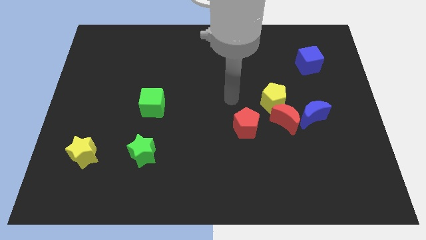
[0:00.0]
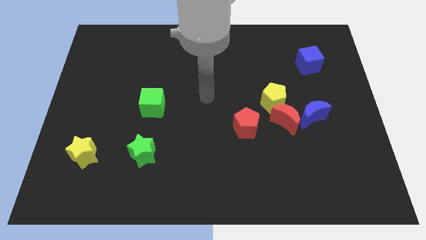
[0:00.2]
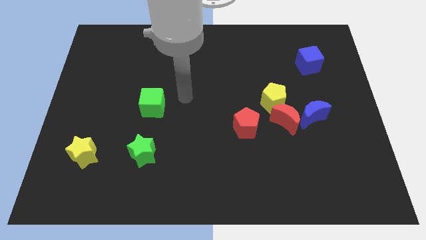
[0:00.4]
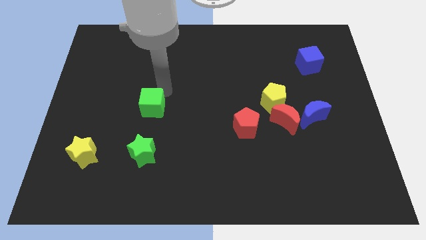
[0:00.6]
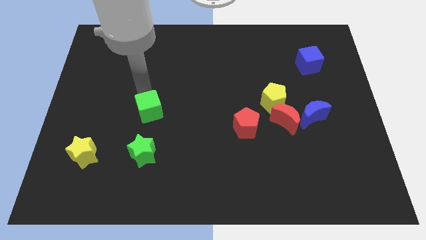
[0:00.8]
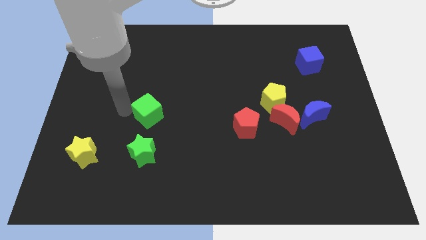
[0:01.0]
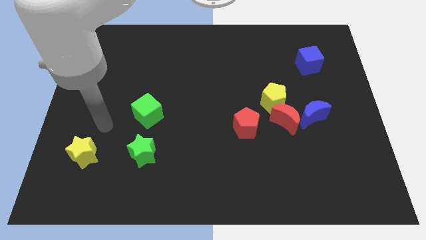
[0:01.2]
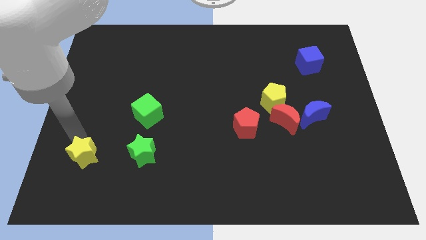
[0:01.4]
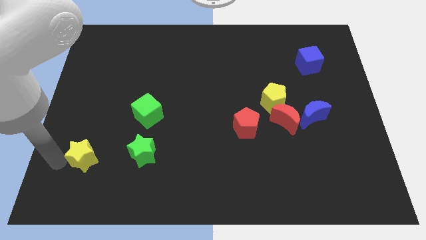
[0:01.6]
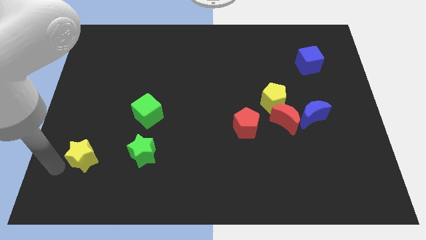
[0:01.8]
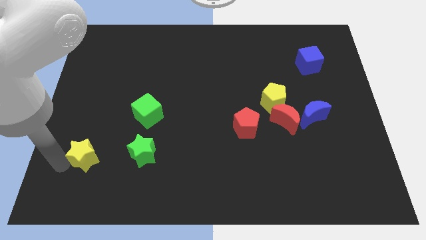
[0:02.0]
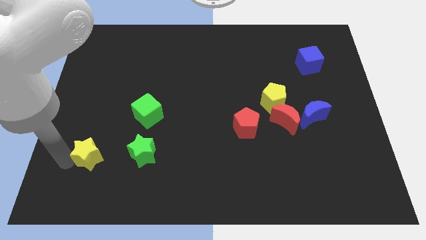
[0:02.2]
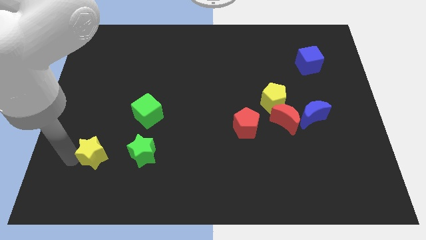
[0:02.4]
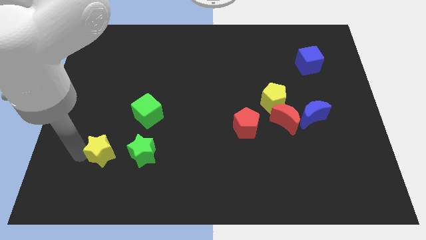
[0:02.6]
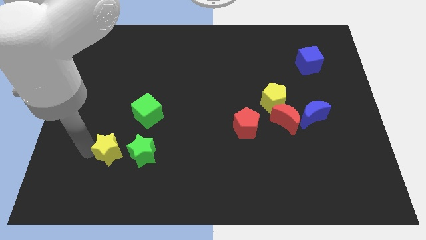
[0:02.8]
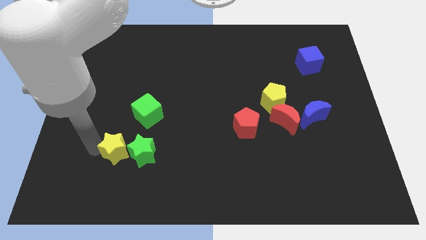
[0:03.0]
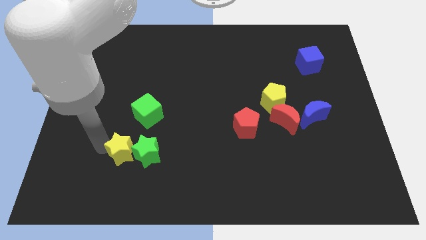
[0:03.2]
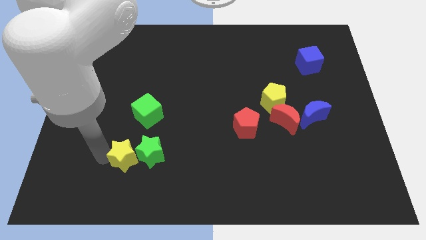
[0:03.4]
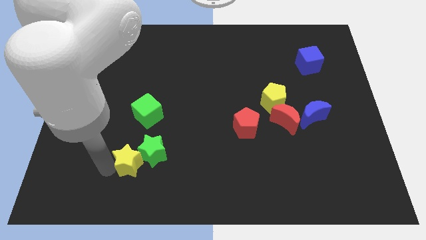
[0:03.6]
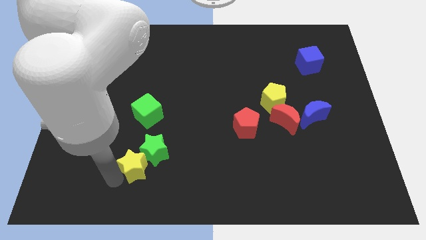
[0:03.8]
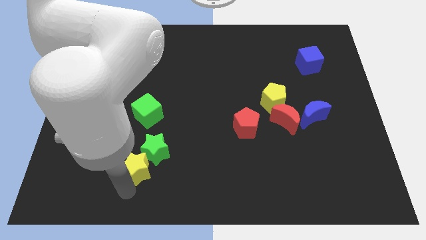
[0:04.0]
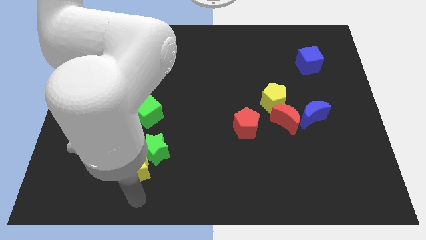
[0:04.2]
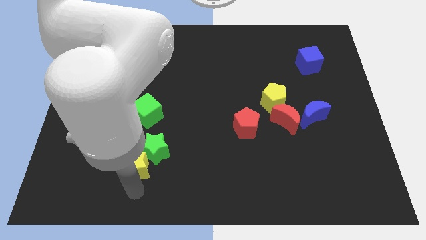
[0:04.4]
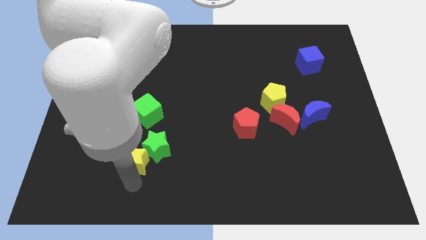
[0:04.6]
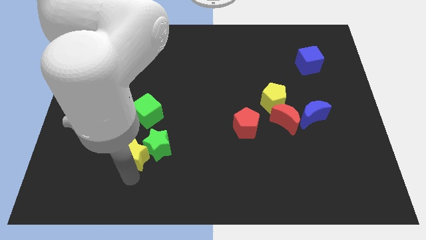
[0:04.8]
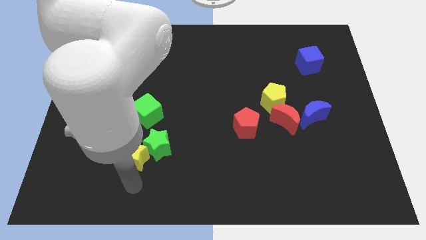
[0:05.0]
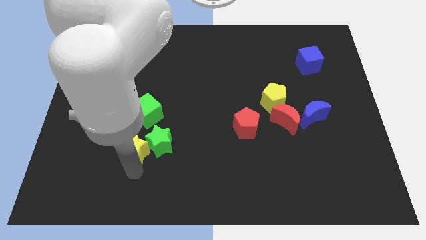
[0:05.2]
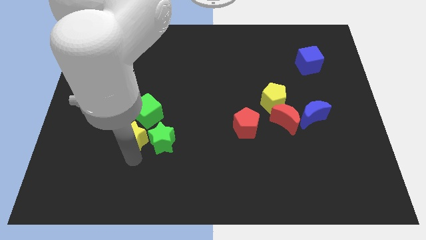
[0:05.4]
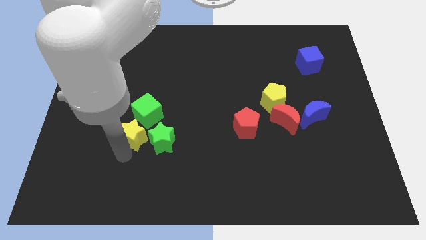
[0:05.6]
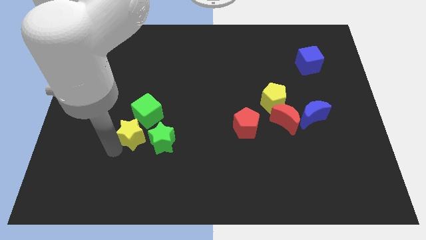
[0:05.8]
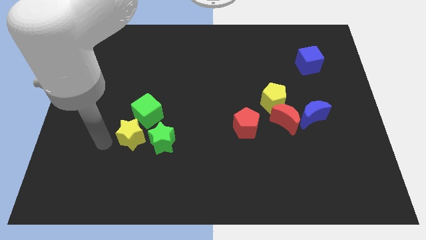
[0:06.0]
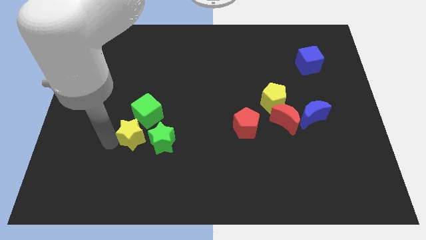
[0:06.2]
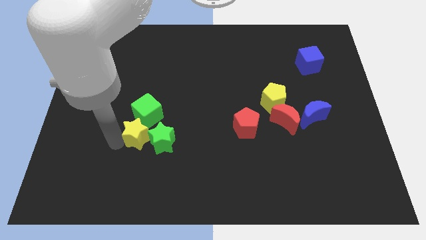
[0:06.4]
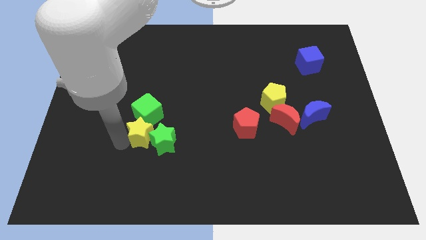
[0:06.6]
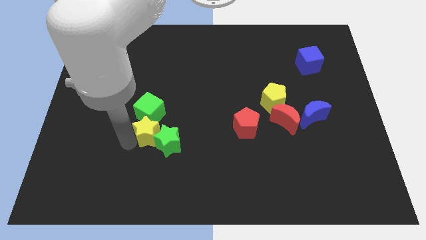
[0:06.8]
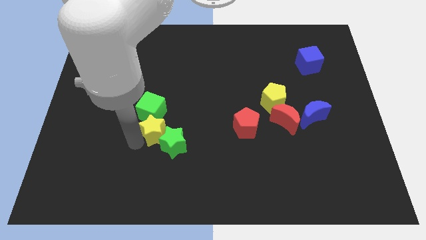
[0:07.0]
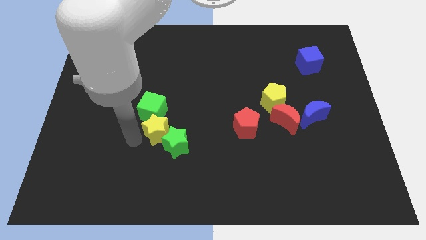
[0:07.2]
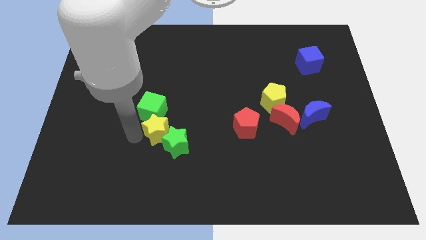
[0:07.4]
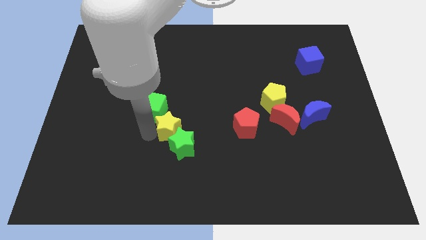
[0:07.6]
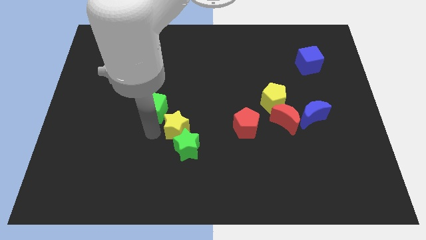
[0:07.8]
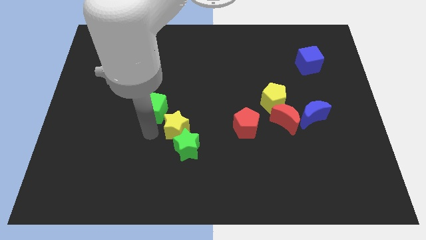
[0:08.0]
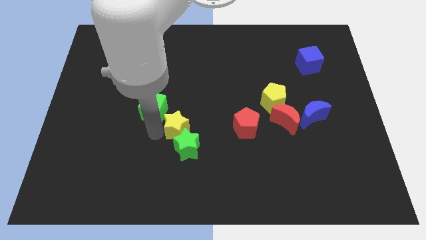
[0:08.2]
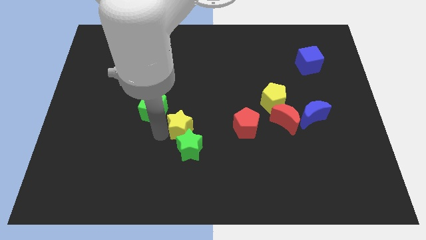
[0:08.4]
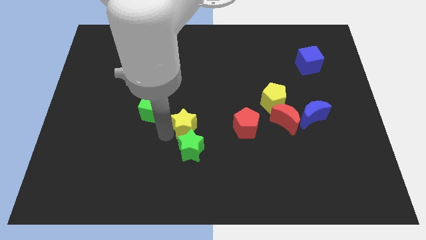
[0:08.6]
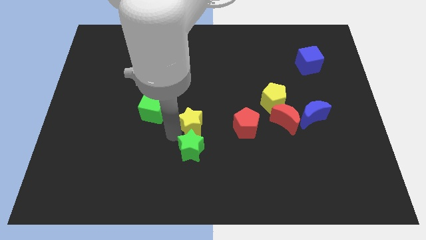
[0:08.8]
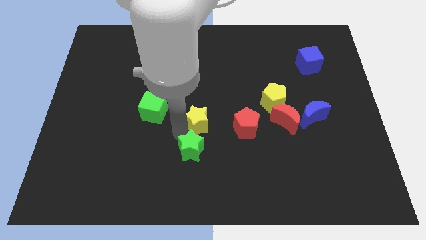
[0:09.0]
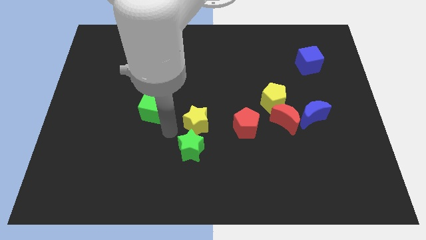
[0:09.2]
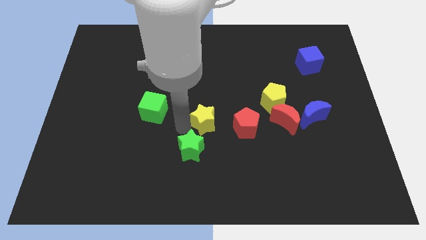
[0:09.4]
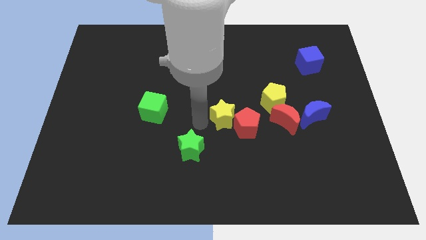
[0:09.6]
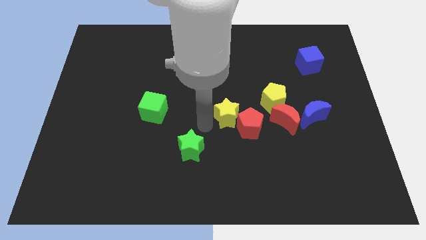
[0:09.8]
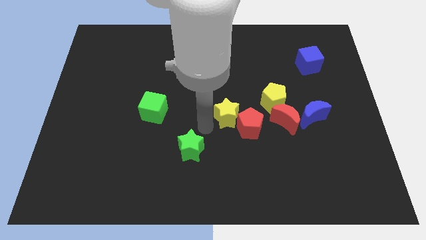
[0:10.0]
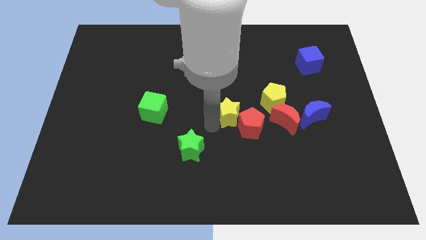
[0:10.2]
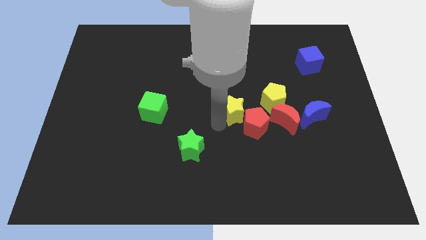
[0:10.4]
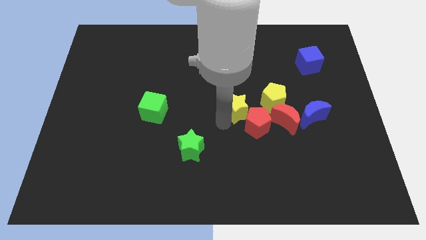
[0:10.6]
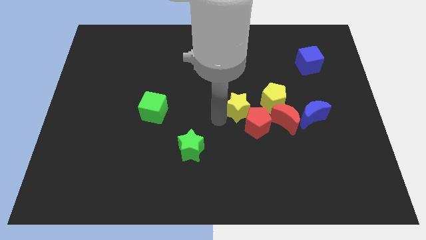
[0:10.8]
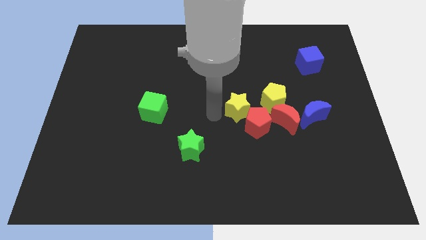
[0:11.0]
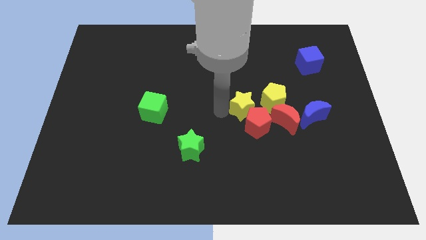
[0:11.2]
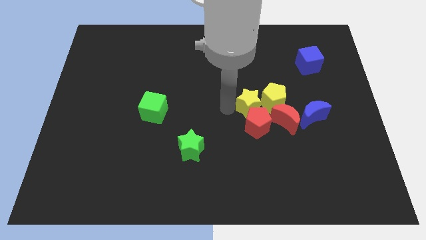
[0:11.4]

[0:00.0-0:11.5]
push the yellow star next to the yellow pentagon

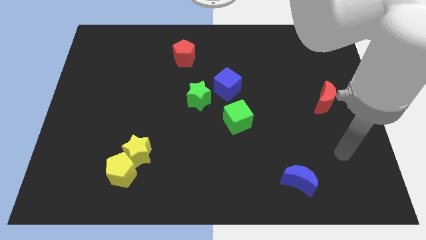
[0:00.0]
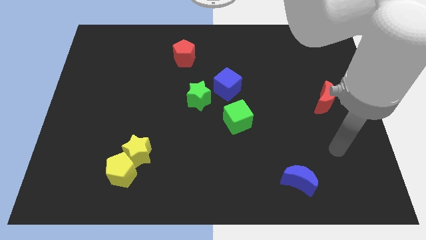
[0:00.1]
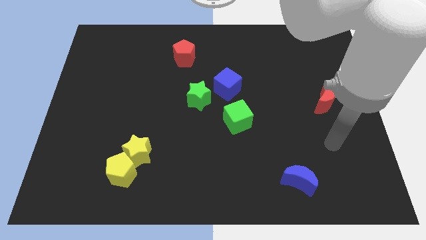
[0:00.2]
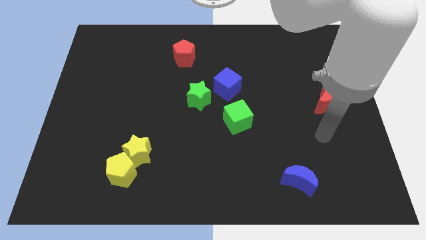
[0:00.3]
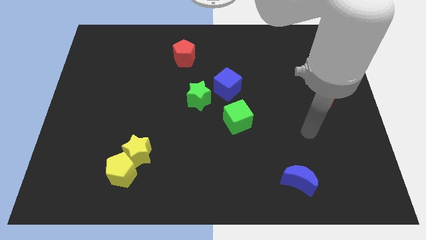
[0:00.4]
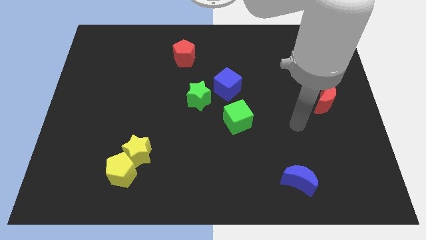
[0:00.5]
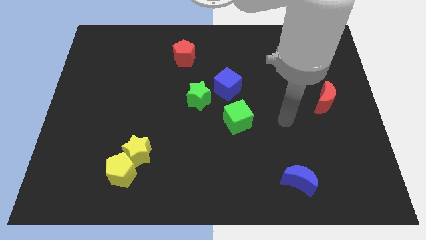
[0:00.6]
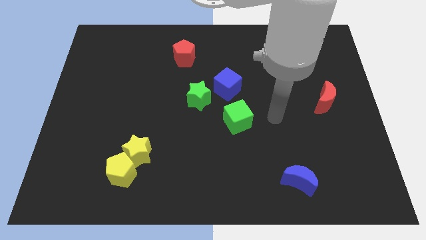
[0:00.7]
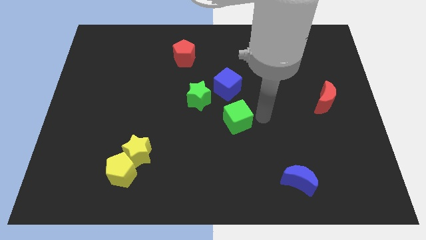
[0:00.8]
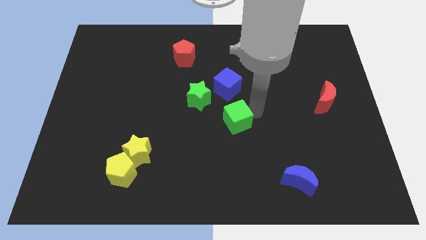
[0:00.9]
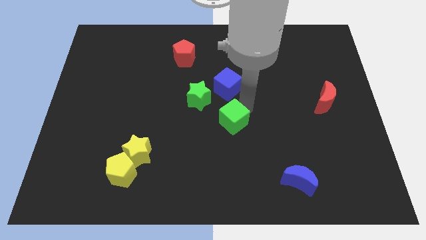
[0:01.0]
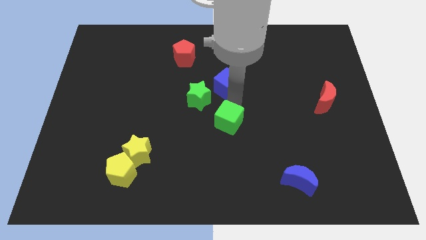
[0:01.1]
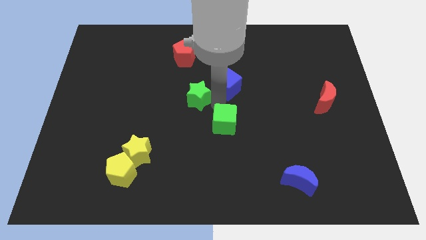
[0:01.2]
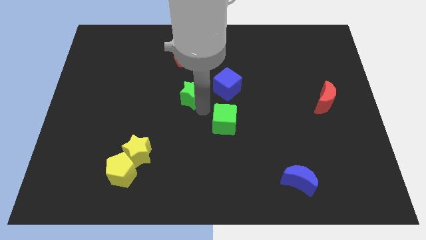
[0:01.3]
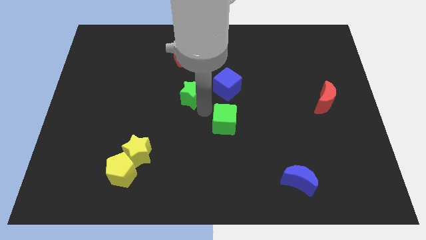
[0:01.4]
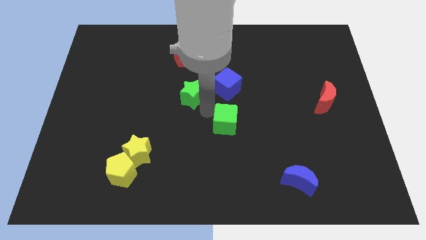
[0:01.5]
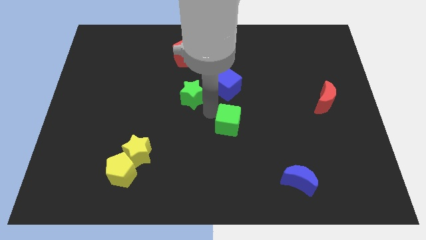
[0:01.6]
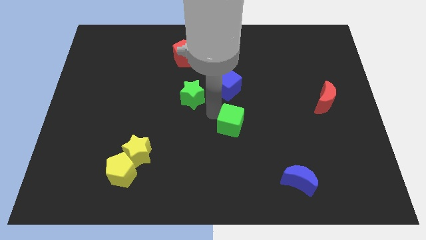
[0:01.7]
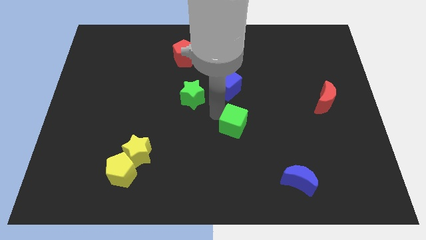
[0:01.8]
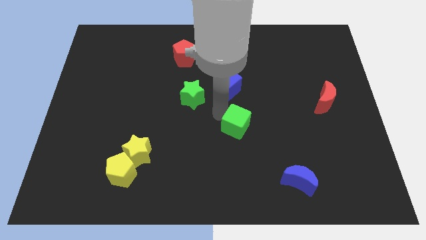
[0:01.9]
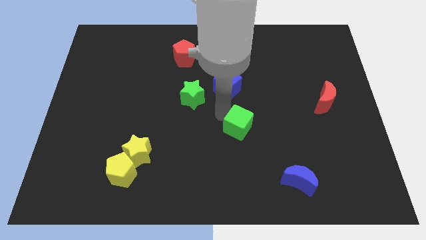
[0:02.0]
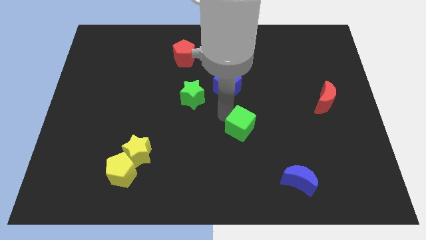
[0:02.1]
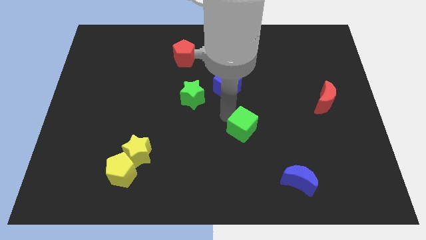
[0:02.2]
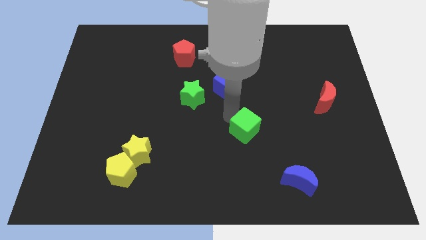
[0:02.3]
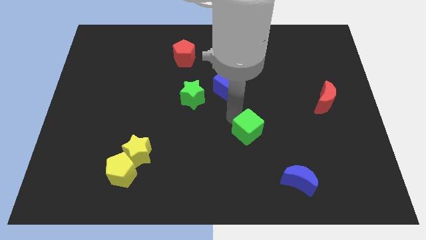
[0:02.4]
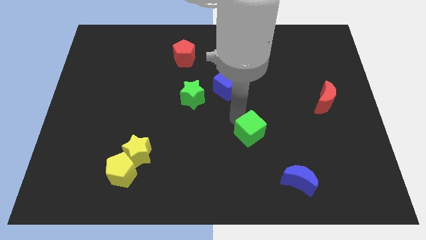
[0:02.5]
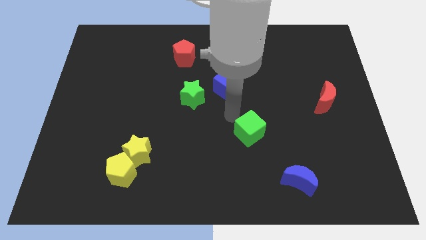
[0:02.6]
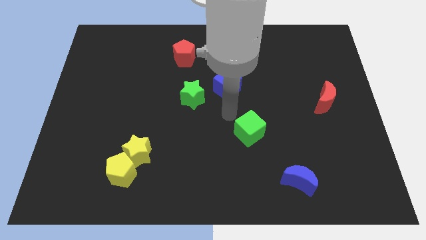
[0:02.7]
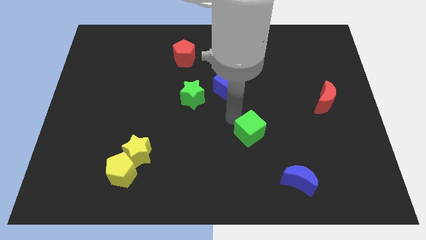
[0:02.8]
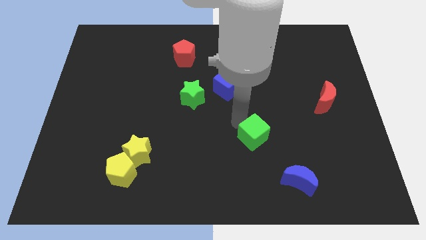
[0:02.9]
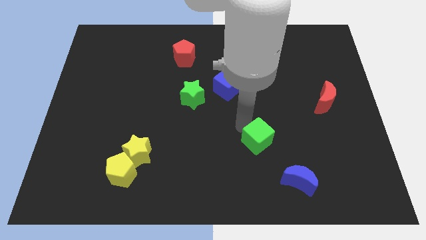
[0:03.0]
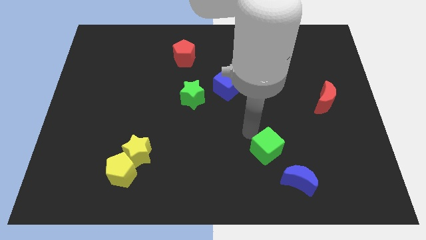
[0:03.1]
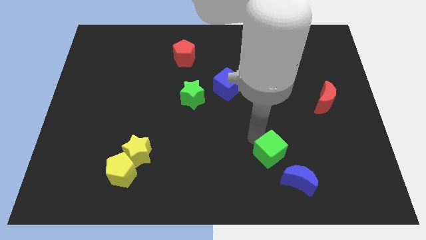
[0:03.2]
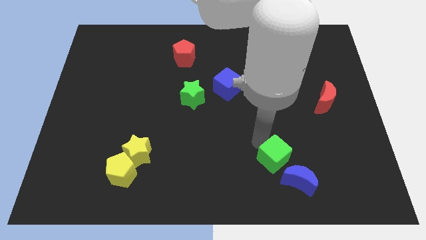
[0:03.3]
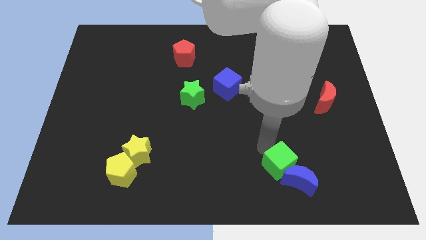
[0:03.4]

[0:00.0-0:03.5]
move the green cube to the blue moon
